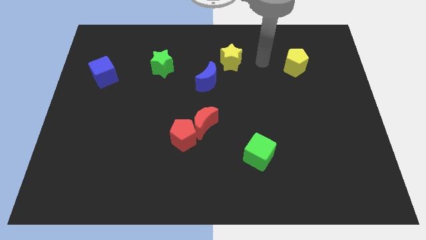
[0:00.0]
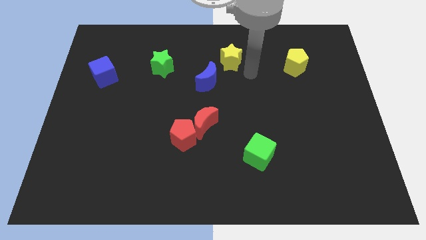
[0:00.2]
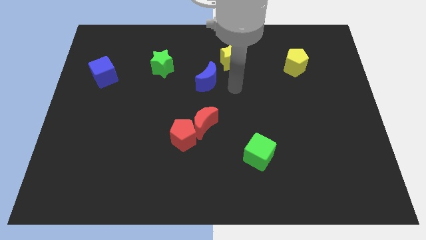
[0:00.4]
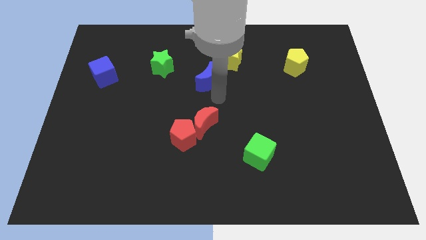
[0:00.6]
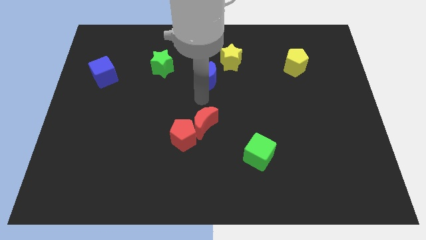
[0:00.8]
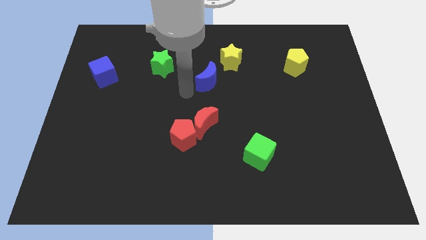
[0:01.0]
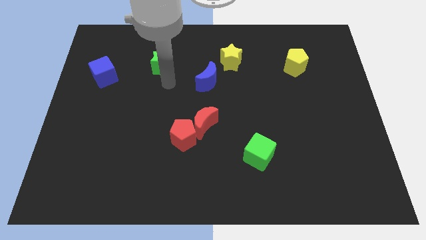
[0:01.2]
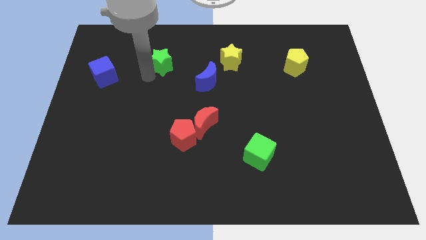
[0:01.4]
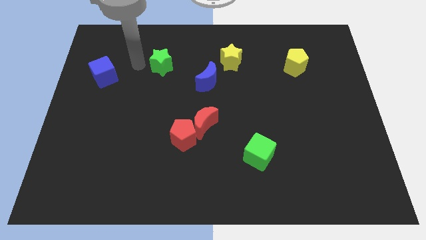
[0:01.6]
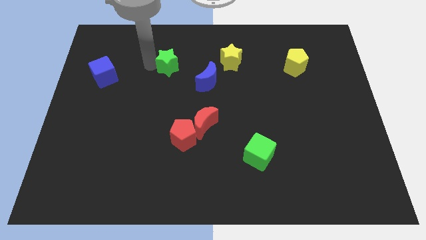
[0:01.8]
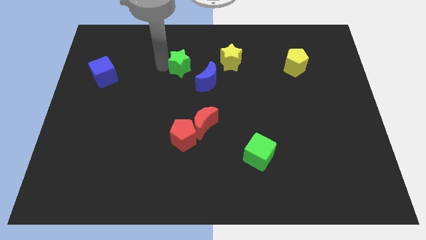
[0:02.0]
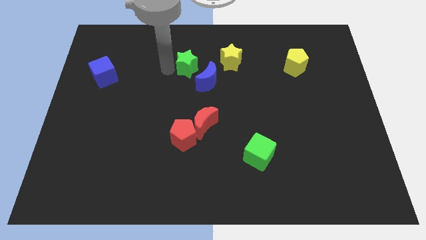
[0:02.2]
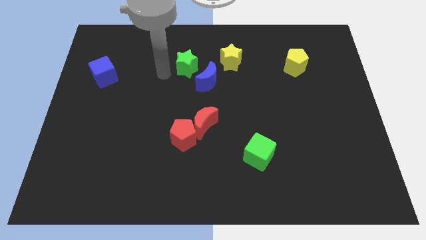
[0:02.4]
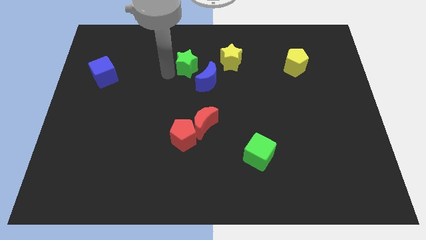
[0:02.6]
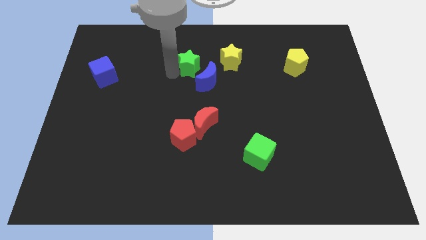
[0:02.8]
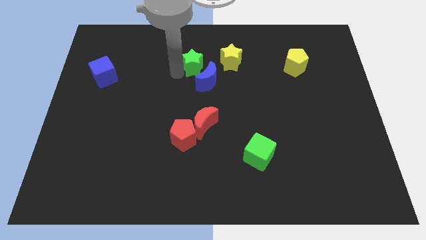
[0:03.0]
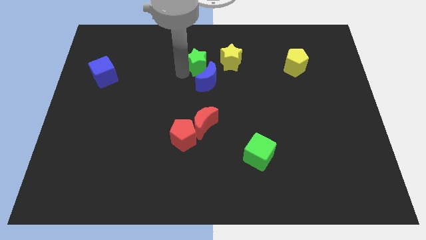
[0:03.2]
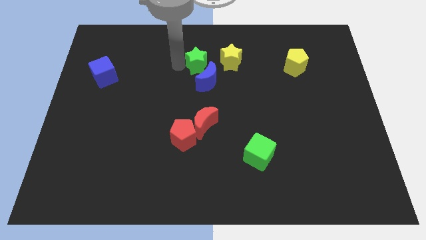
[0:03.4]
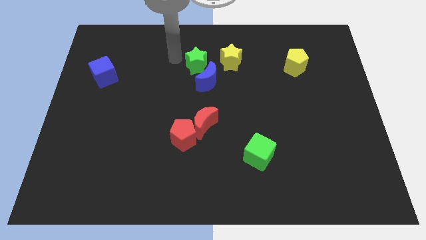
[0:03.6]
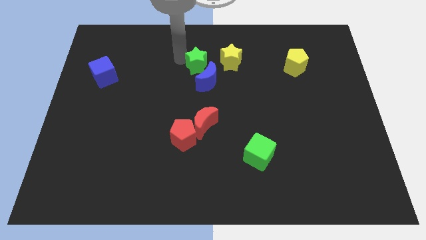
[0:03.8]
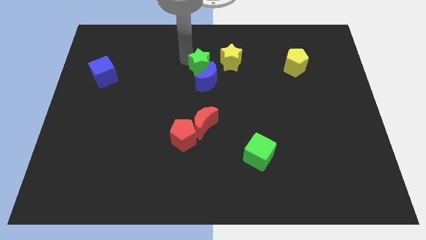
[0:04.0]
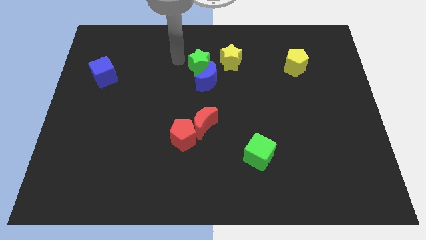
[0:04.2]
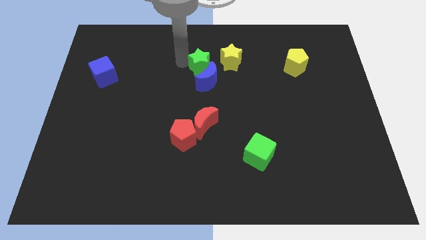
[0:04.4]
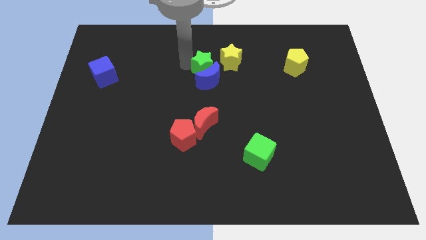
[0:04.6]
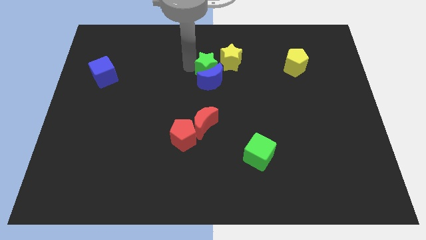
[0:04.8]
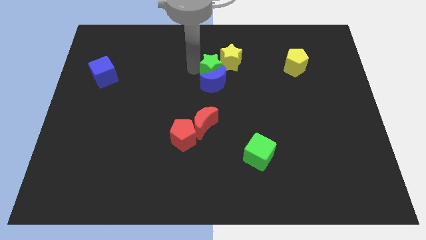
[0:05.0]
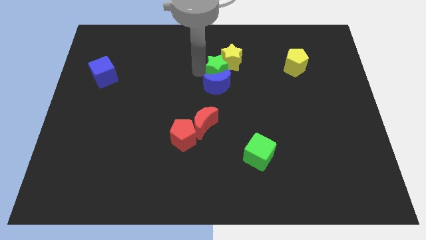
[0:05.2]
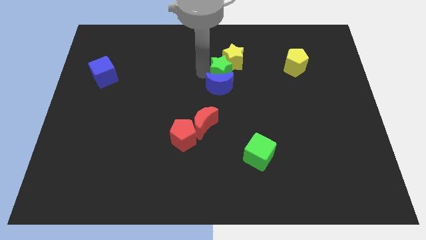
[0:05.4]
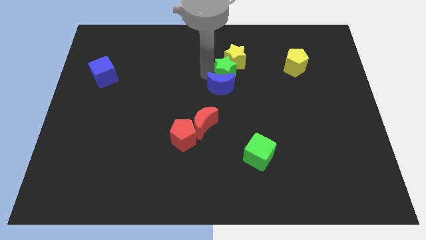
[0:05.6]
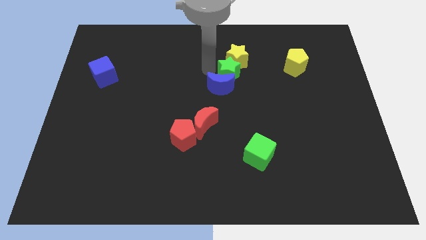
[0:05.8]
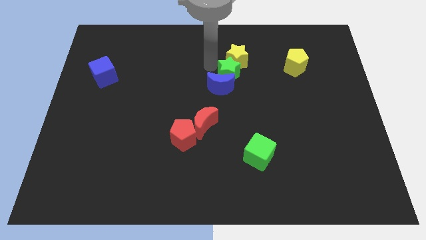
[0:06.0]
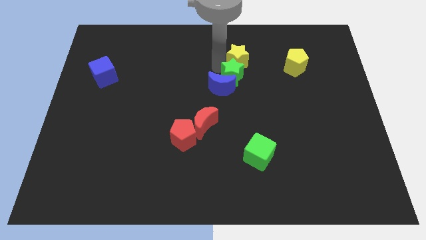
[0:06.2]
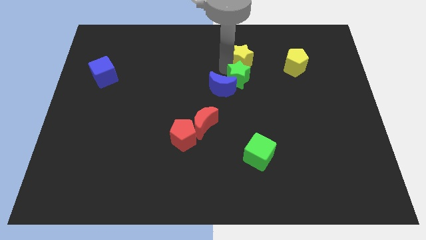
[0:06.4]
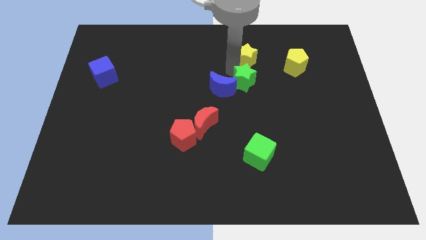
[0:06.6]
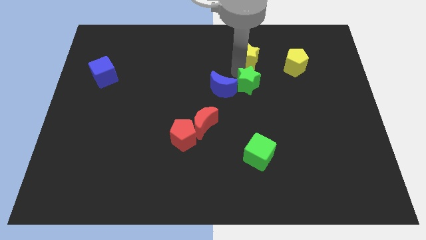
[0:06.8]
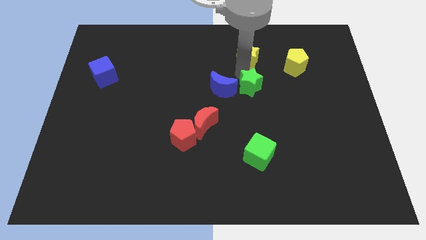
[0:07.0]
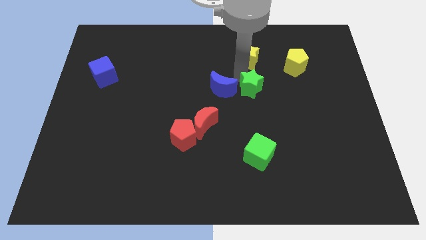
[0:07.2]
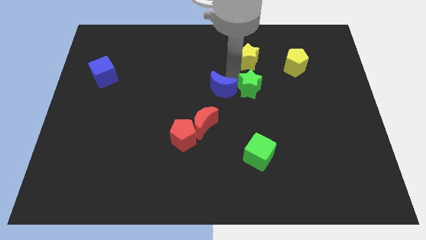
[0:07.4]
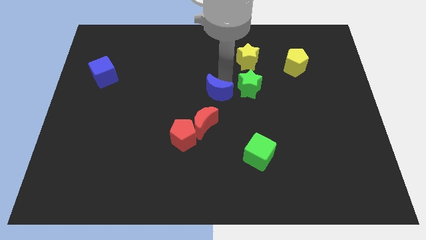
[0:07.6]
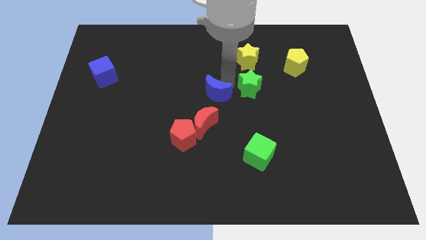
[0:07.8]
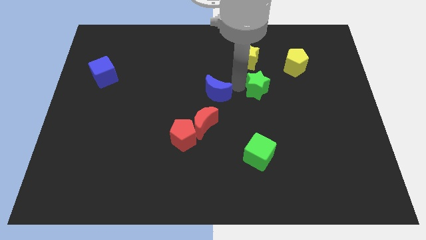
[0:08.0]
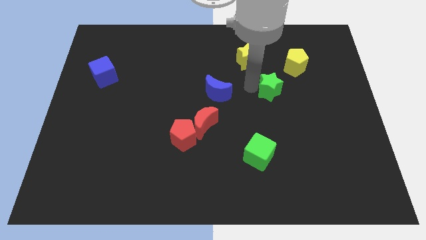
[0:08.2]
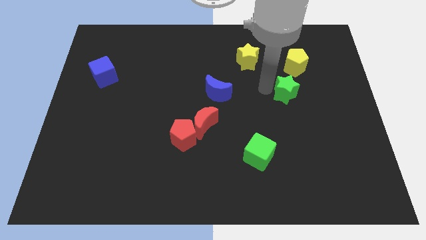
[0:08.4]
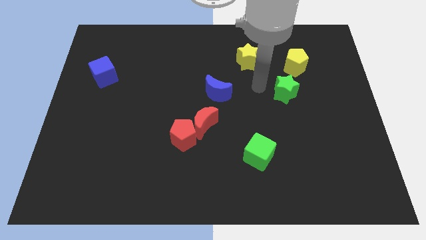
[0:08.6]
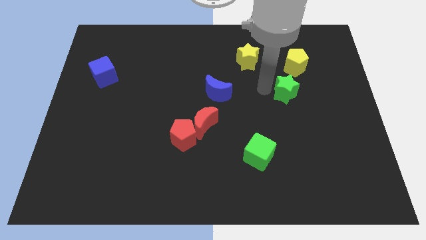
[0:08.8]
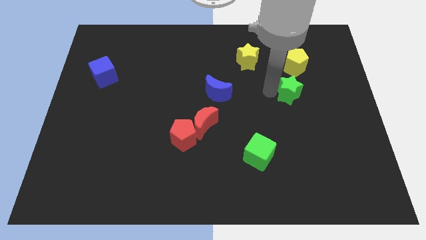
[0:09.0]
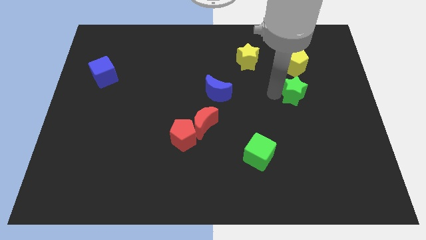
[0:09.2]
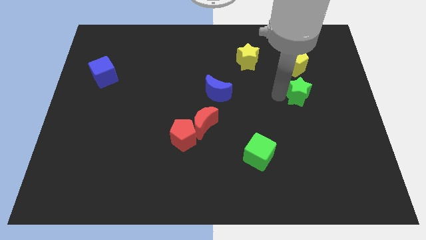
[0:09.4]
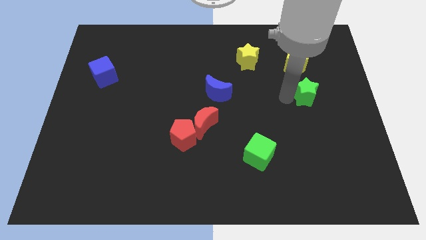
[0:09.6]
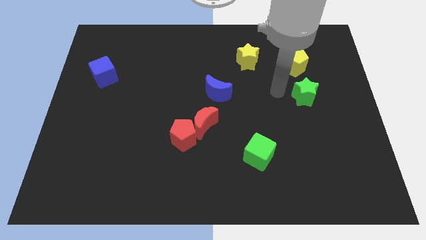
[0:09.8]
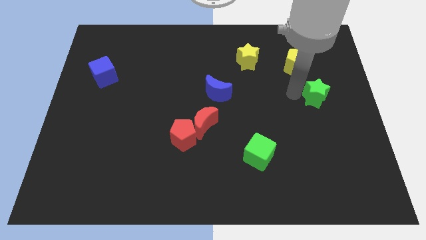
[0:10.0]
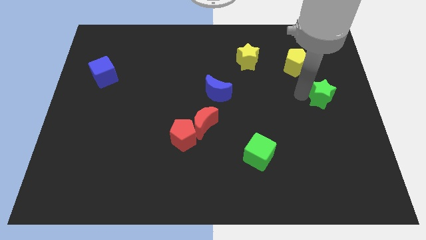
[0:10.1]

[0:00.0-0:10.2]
move the green star to the right side

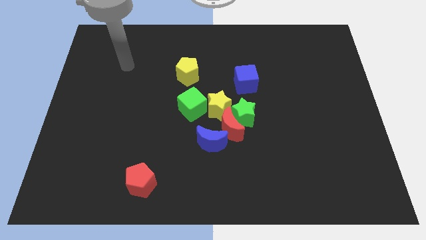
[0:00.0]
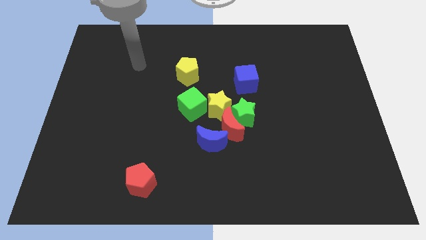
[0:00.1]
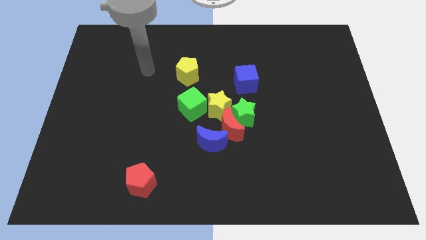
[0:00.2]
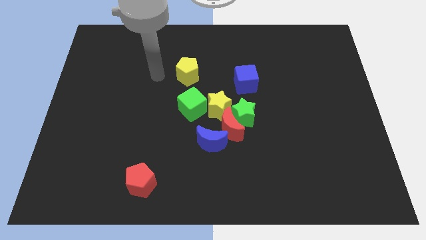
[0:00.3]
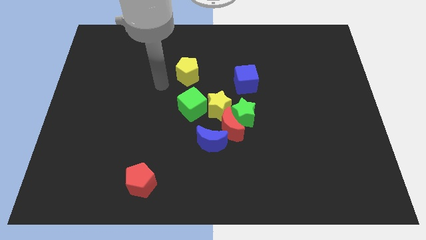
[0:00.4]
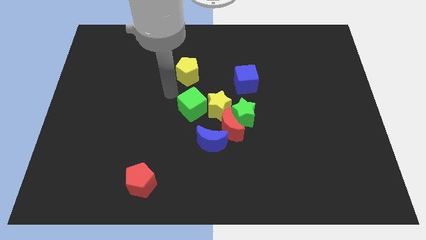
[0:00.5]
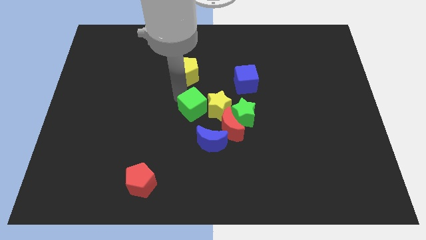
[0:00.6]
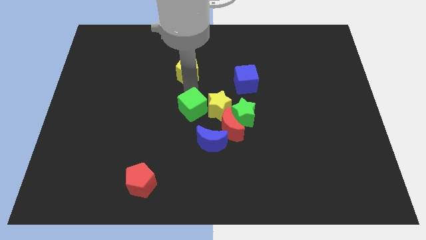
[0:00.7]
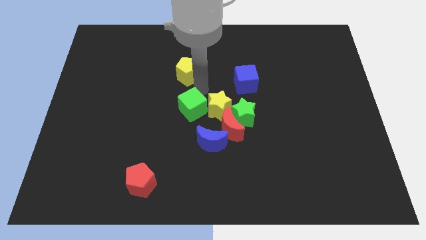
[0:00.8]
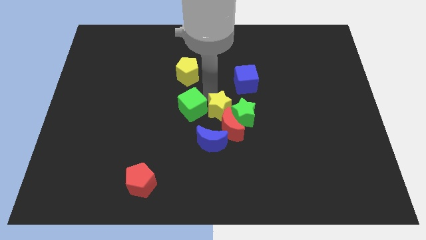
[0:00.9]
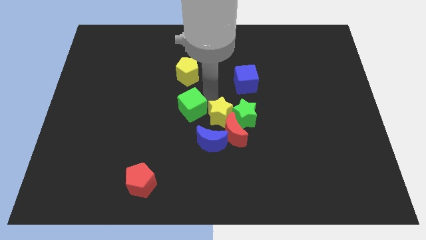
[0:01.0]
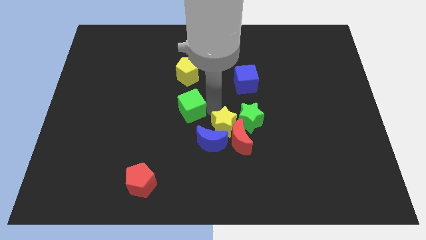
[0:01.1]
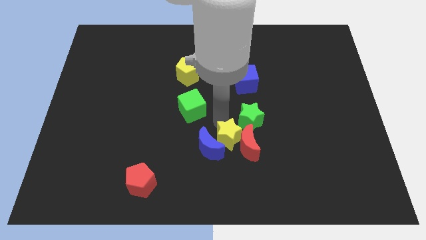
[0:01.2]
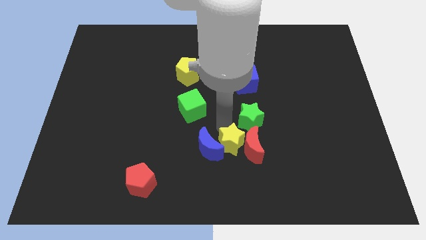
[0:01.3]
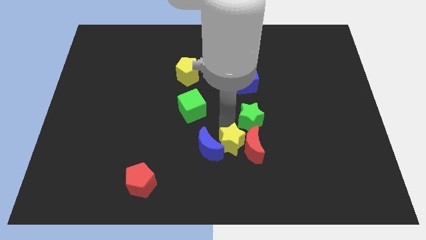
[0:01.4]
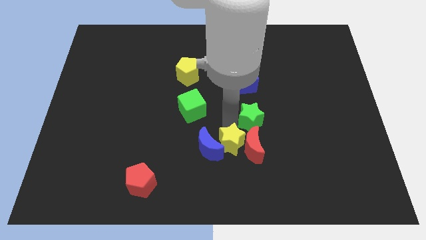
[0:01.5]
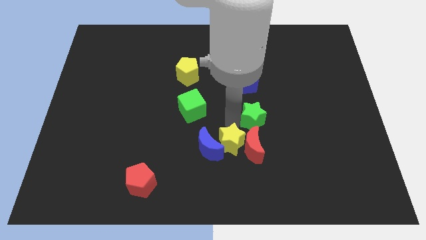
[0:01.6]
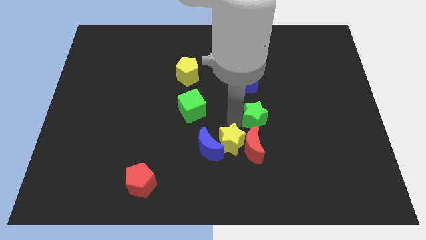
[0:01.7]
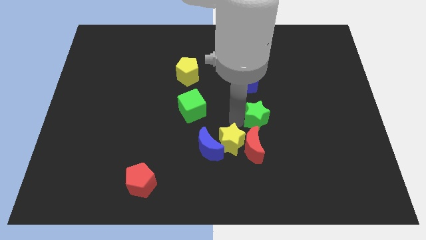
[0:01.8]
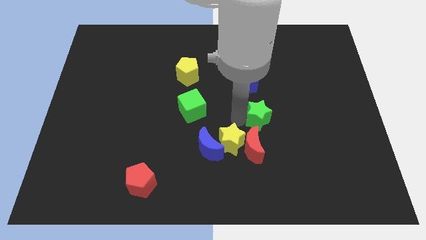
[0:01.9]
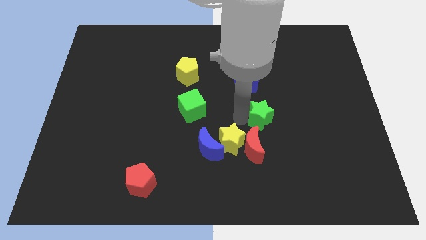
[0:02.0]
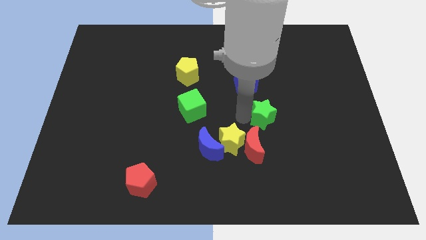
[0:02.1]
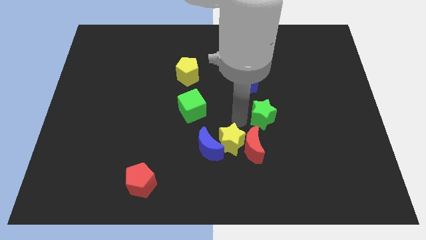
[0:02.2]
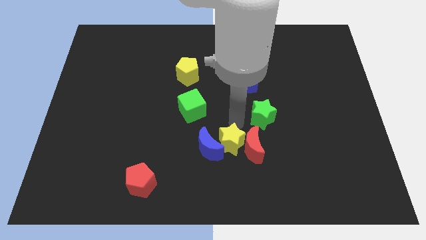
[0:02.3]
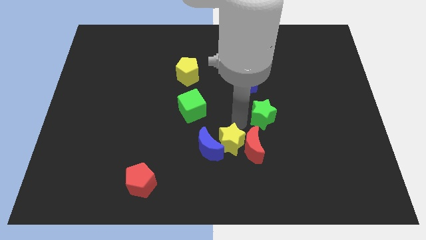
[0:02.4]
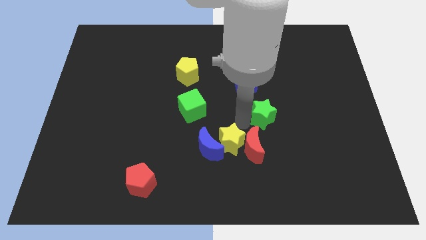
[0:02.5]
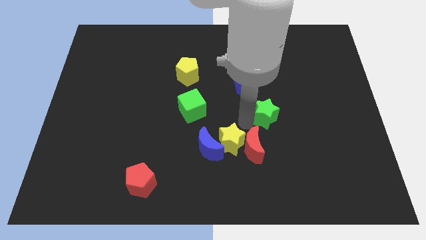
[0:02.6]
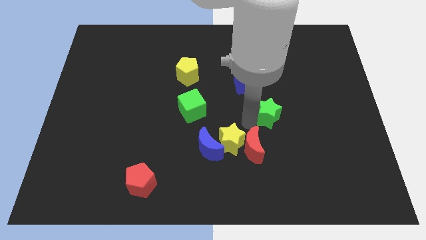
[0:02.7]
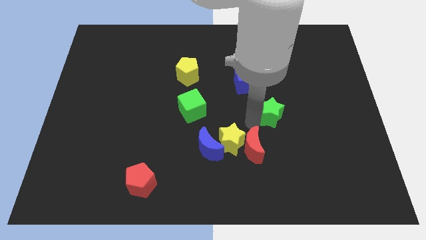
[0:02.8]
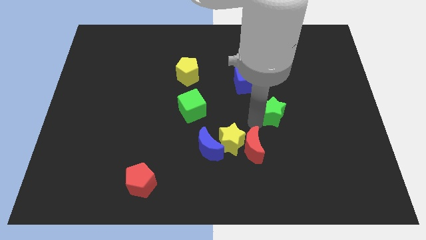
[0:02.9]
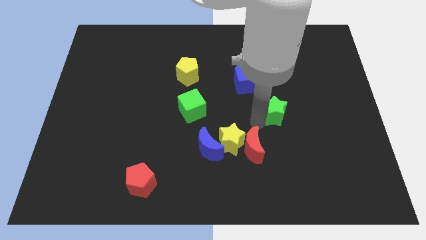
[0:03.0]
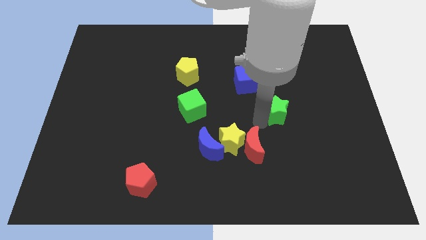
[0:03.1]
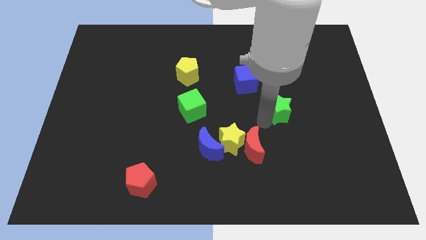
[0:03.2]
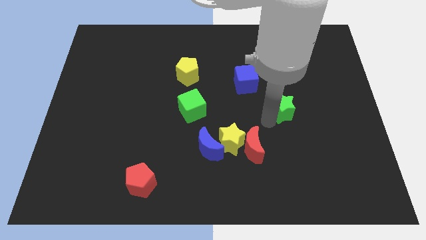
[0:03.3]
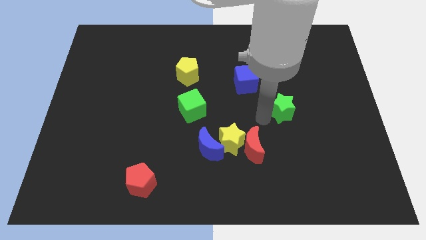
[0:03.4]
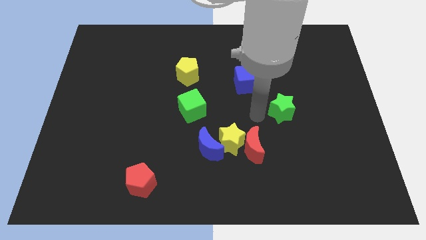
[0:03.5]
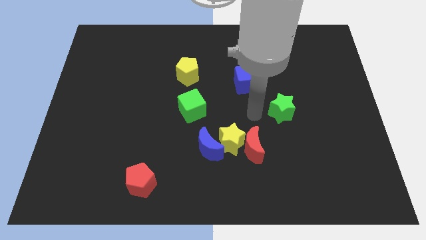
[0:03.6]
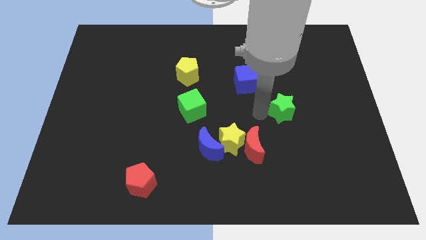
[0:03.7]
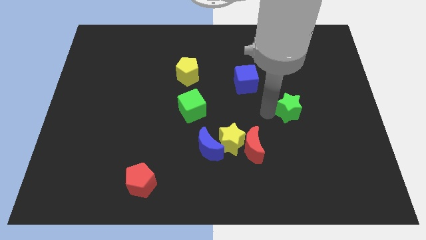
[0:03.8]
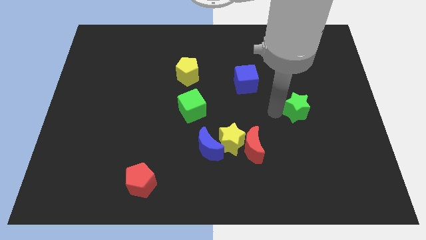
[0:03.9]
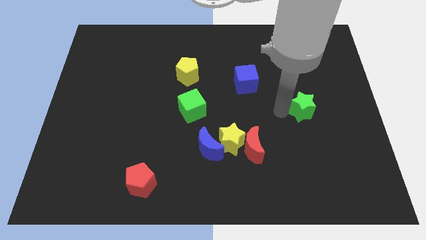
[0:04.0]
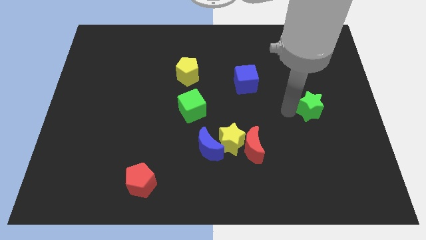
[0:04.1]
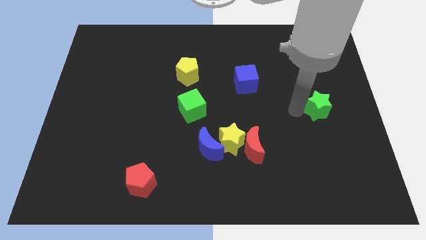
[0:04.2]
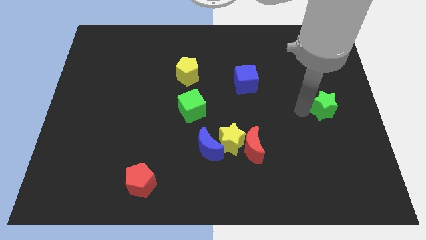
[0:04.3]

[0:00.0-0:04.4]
push the green star to the right side
